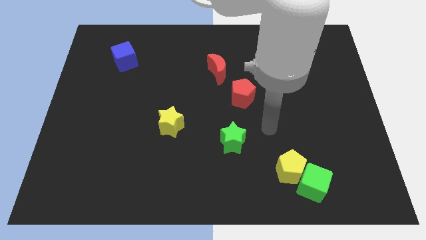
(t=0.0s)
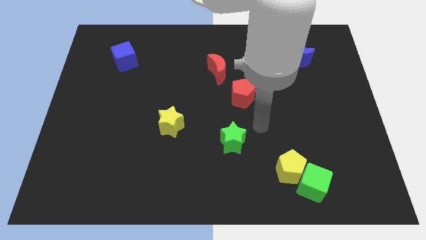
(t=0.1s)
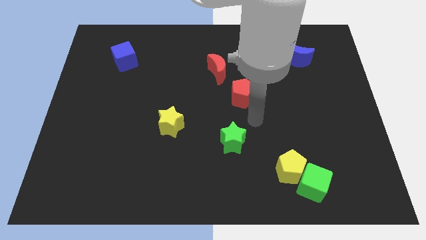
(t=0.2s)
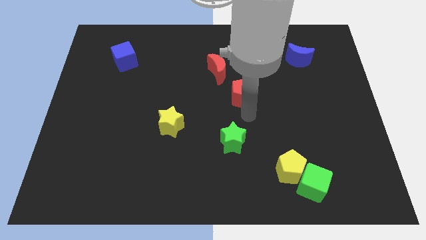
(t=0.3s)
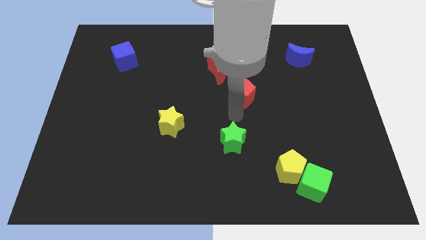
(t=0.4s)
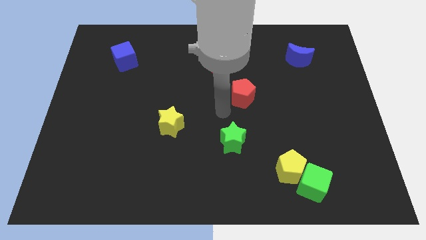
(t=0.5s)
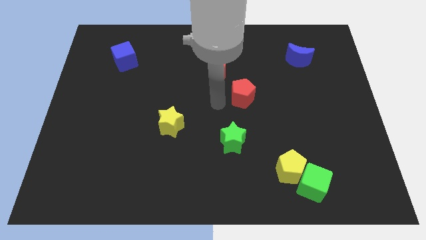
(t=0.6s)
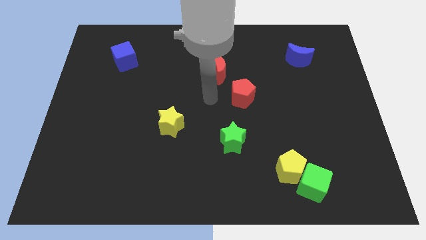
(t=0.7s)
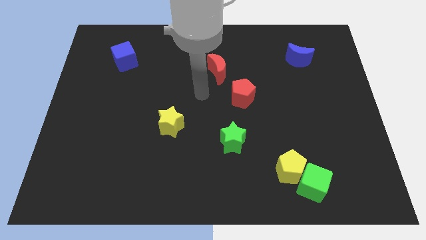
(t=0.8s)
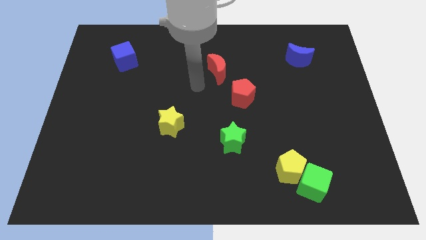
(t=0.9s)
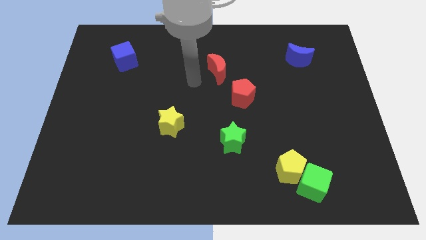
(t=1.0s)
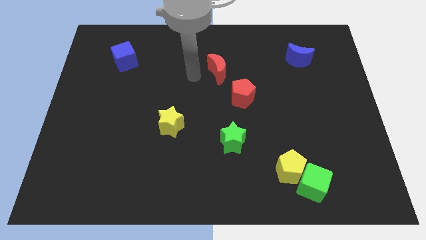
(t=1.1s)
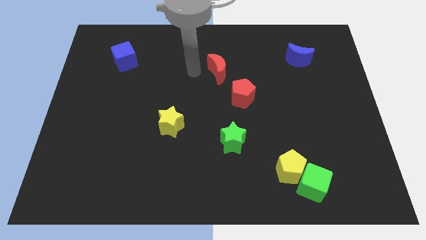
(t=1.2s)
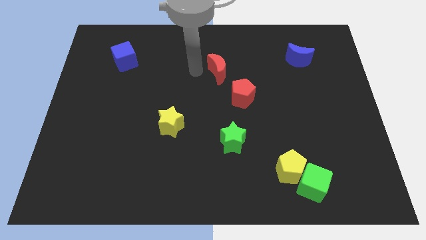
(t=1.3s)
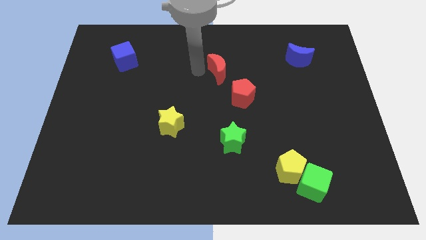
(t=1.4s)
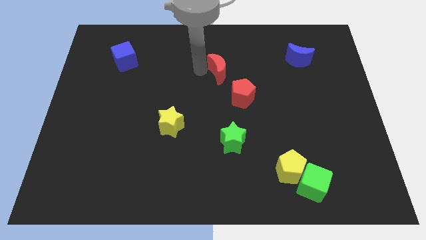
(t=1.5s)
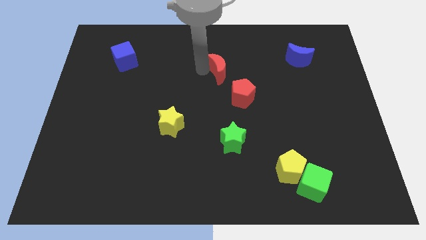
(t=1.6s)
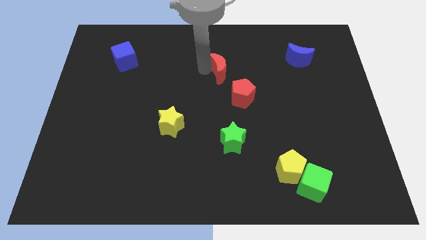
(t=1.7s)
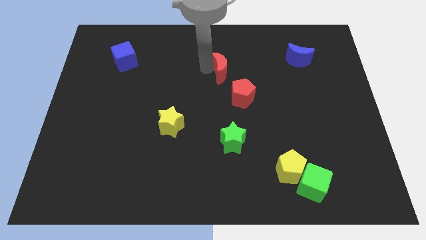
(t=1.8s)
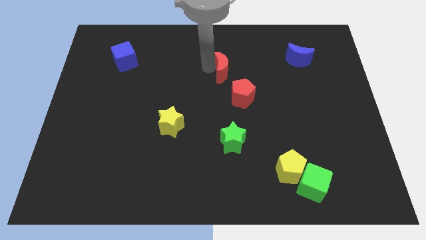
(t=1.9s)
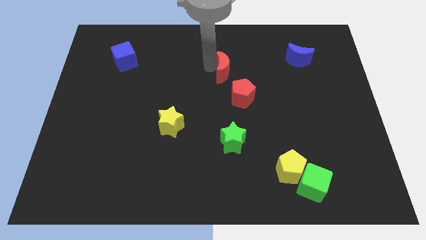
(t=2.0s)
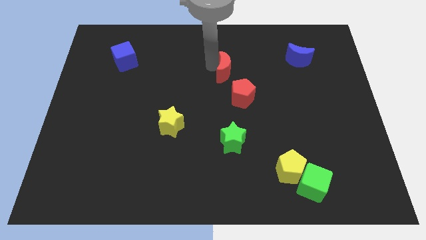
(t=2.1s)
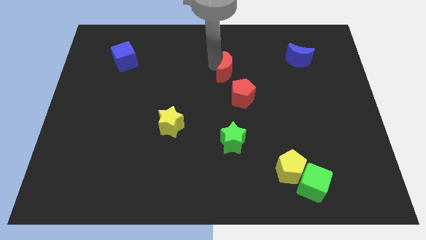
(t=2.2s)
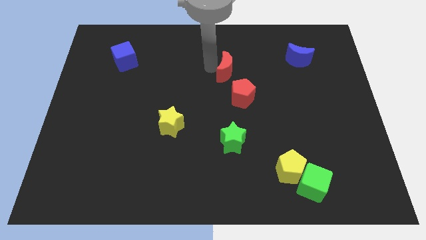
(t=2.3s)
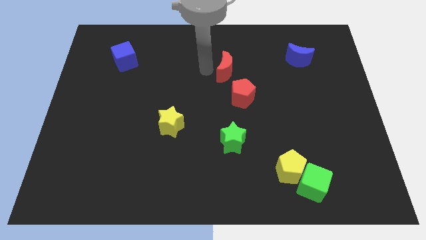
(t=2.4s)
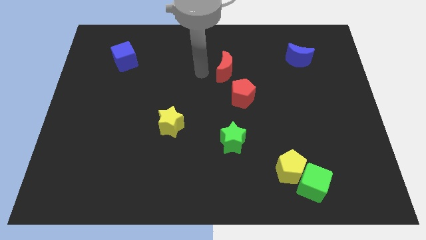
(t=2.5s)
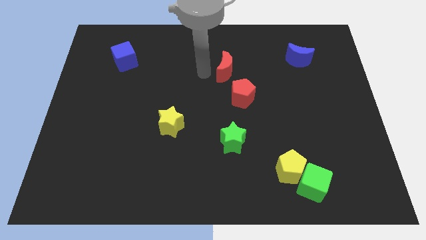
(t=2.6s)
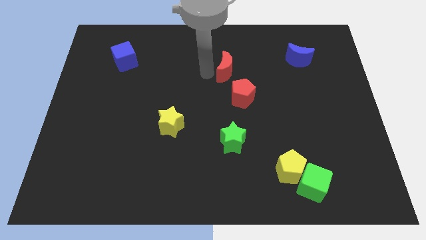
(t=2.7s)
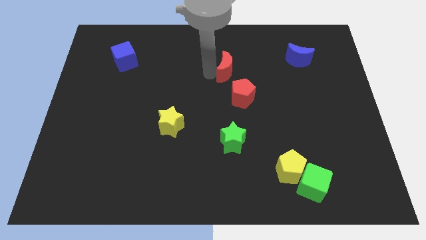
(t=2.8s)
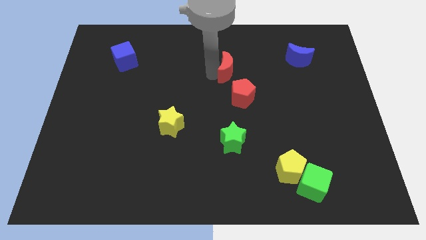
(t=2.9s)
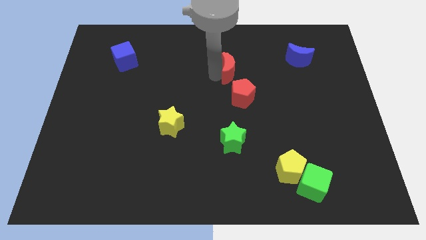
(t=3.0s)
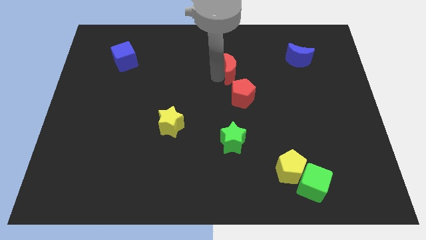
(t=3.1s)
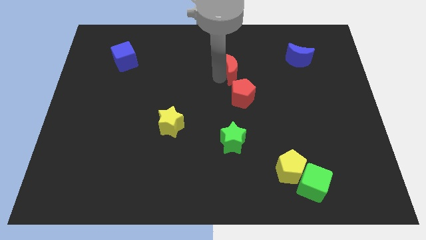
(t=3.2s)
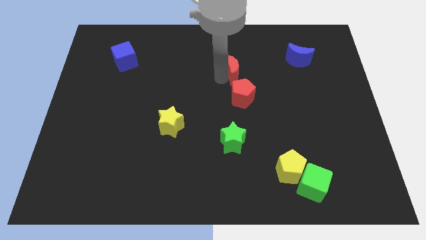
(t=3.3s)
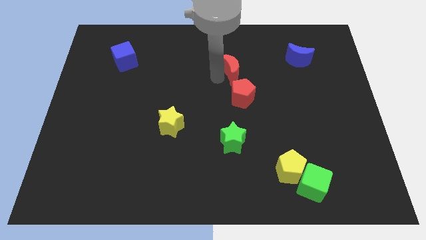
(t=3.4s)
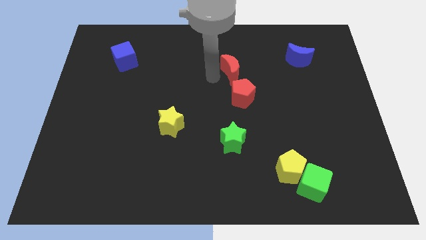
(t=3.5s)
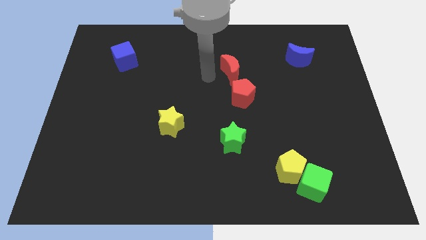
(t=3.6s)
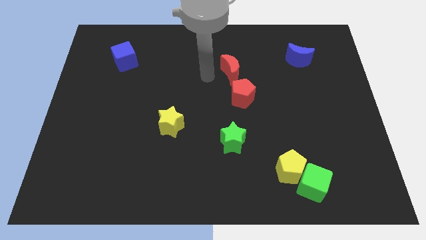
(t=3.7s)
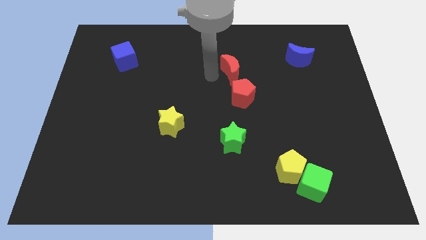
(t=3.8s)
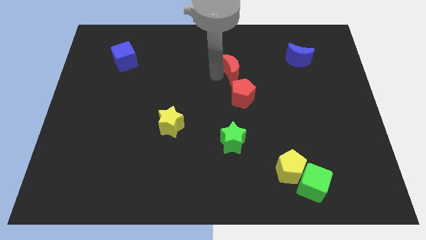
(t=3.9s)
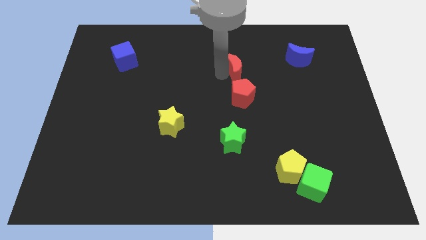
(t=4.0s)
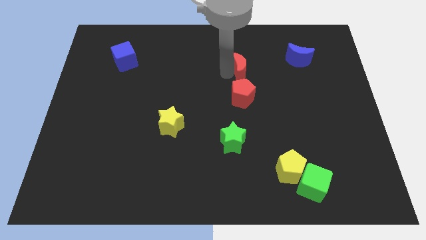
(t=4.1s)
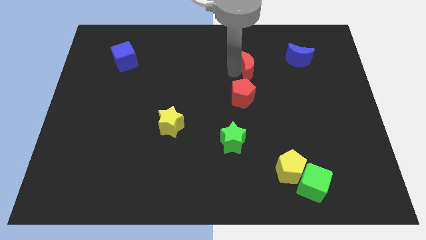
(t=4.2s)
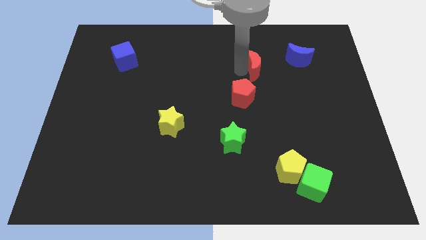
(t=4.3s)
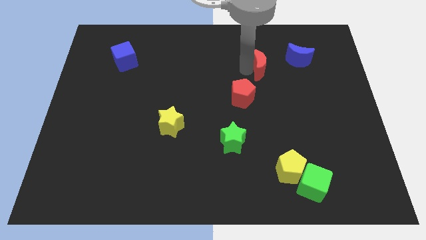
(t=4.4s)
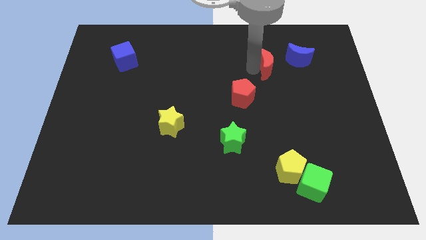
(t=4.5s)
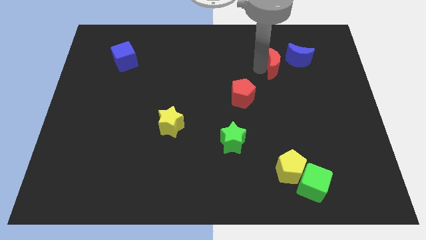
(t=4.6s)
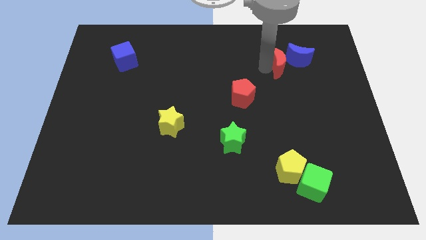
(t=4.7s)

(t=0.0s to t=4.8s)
slide the red moon close to the blue moon

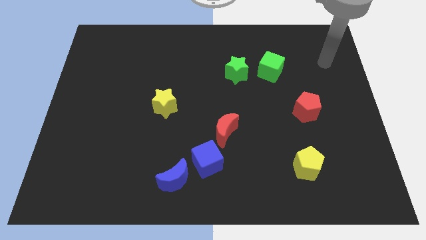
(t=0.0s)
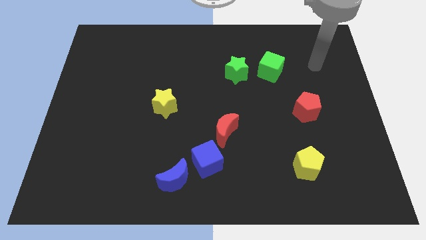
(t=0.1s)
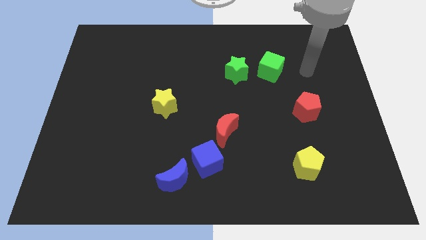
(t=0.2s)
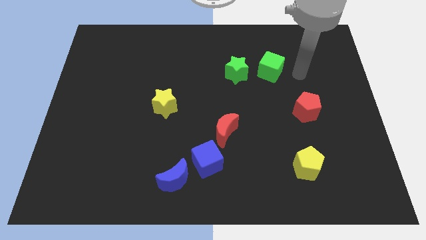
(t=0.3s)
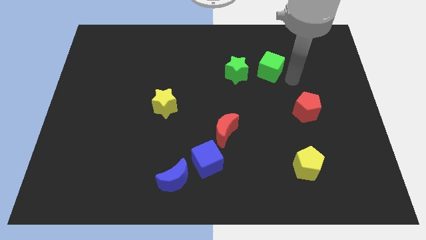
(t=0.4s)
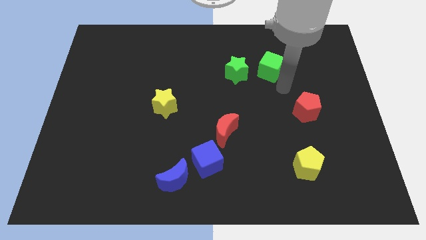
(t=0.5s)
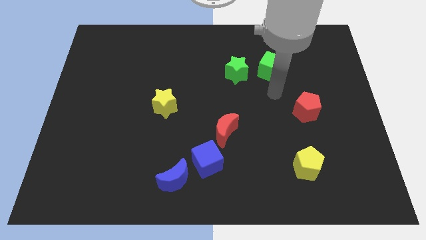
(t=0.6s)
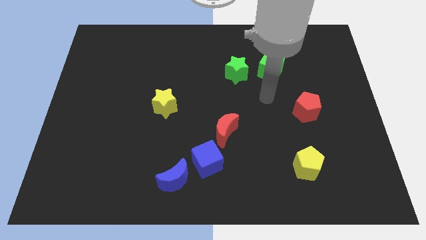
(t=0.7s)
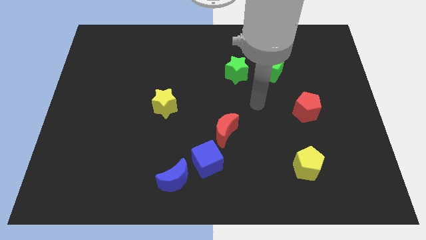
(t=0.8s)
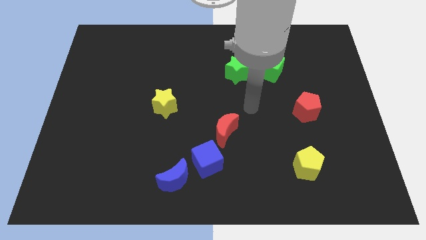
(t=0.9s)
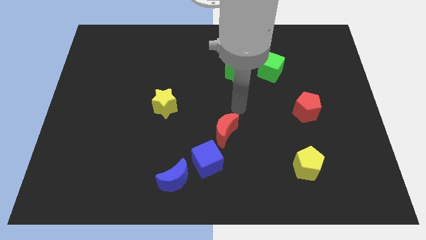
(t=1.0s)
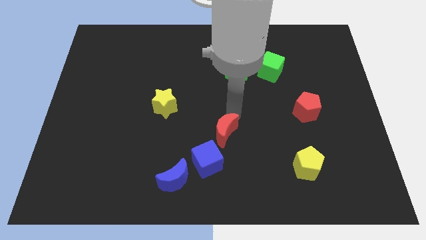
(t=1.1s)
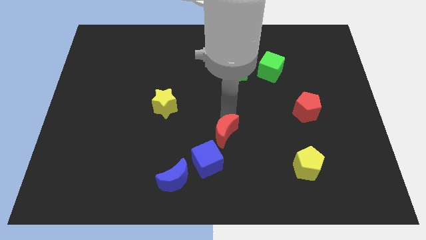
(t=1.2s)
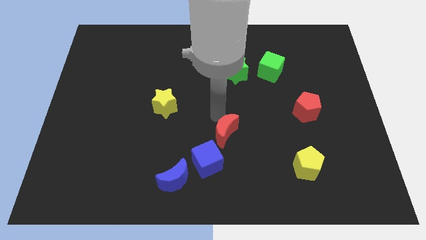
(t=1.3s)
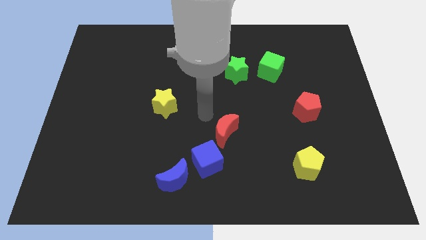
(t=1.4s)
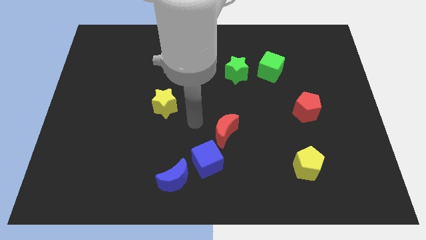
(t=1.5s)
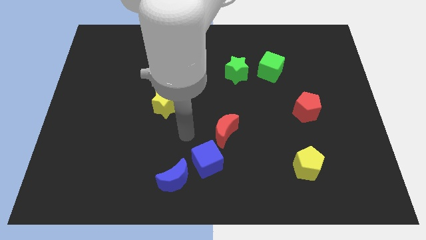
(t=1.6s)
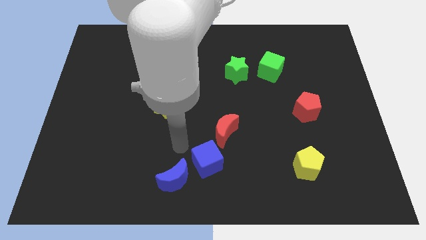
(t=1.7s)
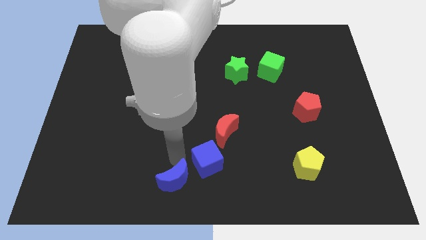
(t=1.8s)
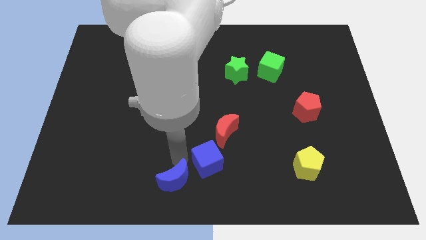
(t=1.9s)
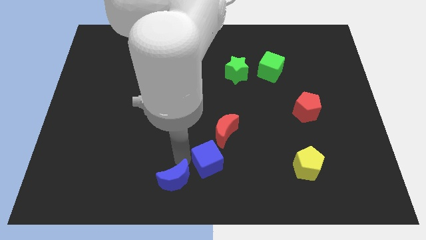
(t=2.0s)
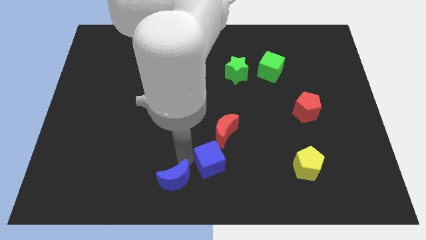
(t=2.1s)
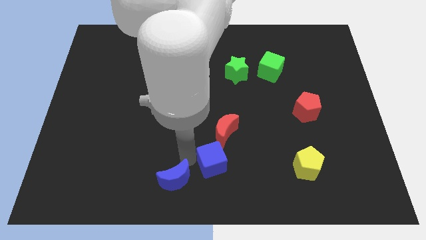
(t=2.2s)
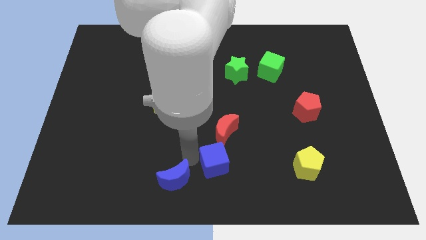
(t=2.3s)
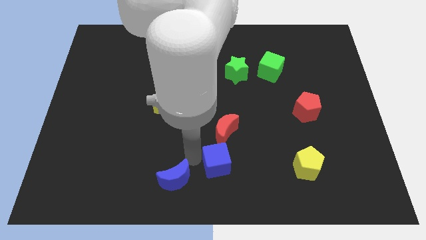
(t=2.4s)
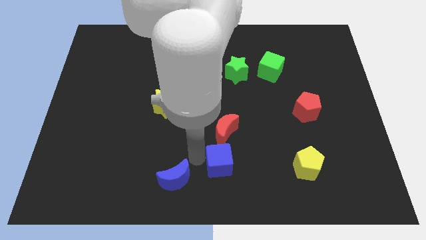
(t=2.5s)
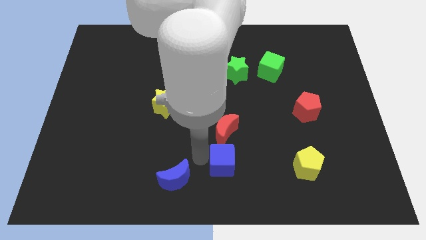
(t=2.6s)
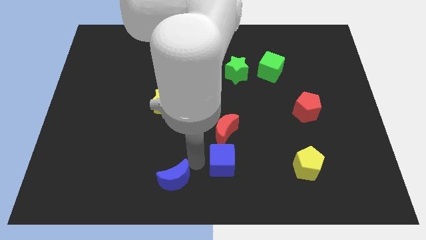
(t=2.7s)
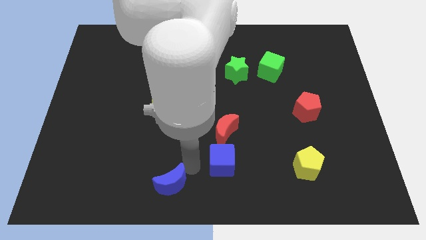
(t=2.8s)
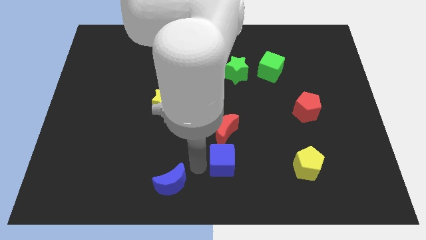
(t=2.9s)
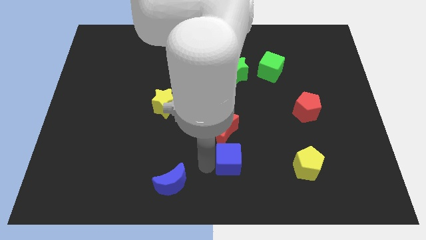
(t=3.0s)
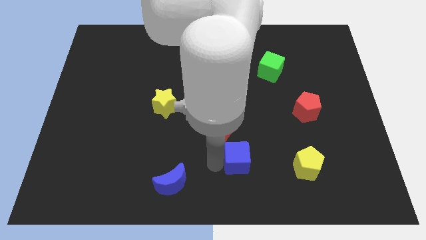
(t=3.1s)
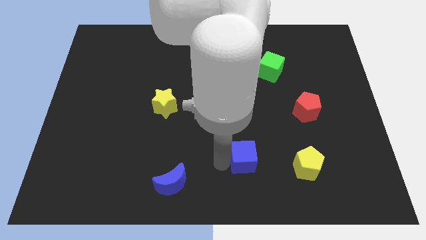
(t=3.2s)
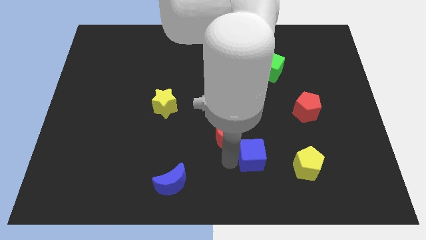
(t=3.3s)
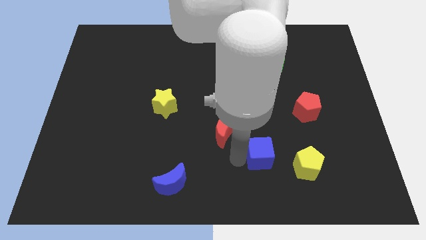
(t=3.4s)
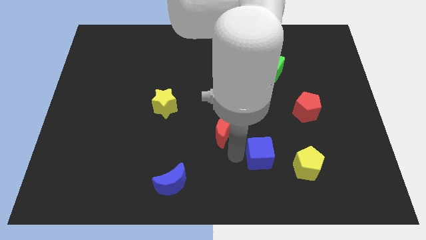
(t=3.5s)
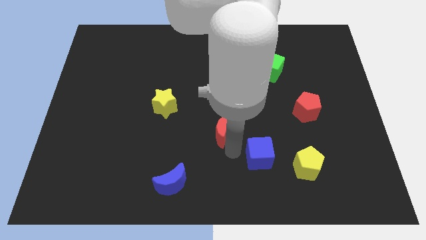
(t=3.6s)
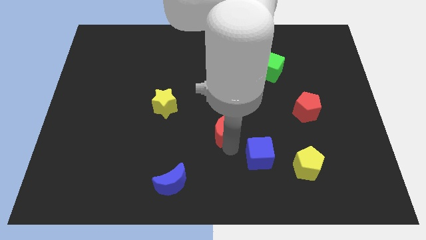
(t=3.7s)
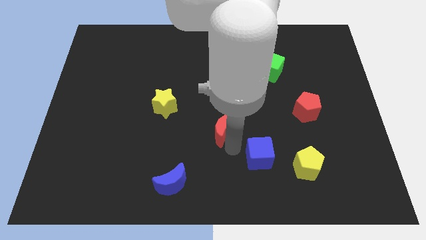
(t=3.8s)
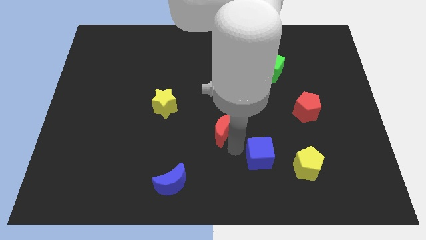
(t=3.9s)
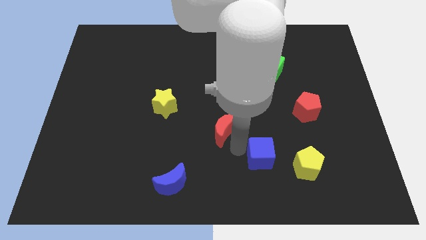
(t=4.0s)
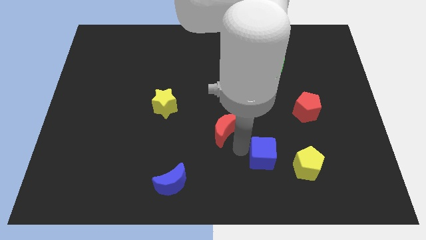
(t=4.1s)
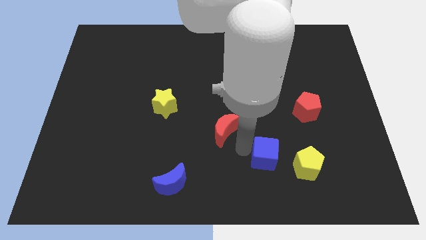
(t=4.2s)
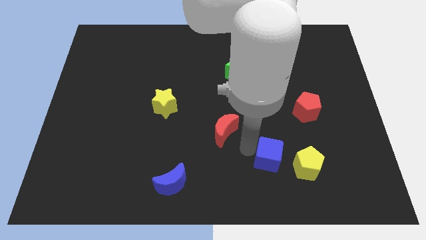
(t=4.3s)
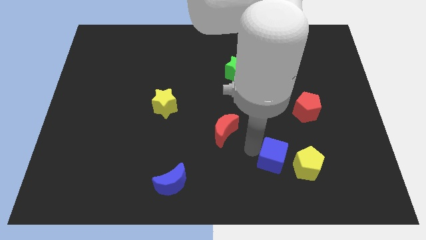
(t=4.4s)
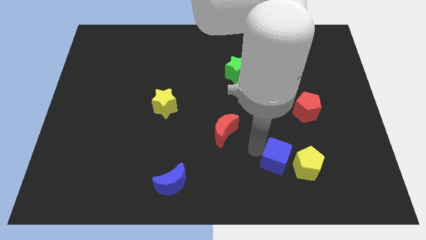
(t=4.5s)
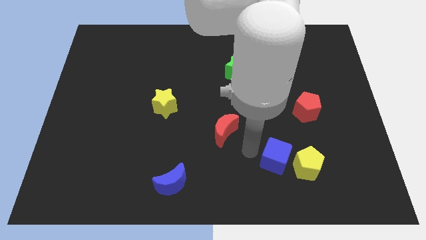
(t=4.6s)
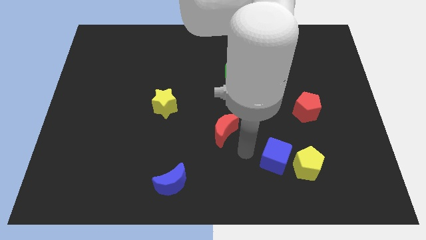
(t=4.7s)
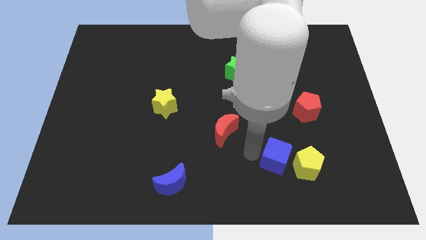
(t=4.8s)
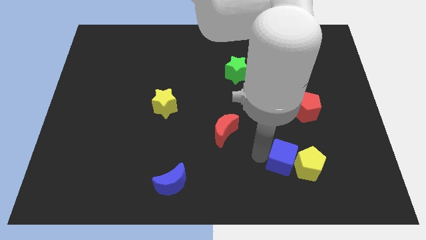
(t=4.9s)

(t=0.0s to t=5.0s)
push the blue cube next to the yellow pentagon
